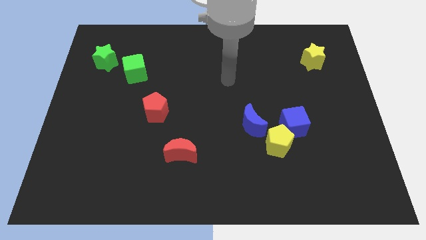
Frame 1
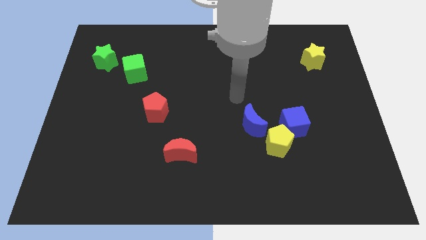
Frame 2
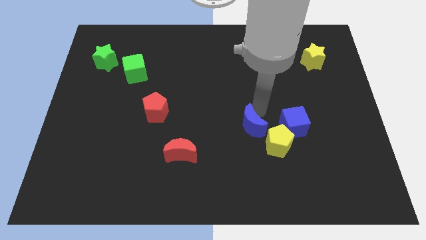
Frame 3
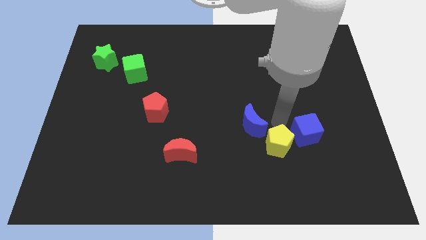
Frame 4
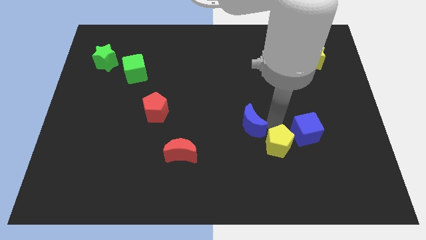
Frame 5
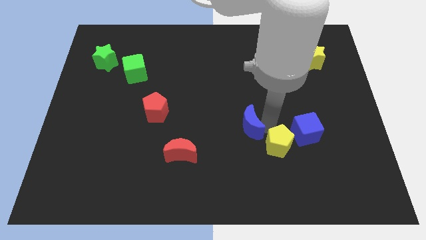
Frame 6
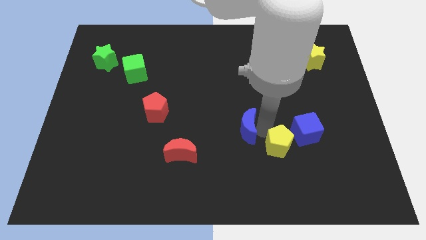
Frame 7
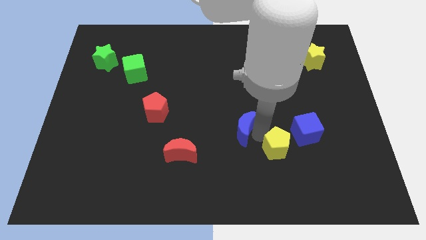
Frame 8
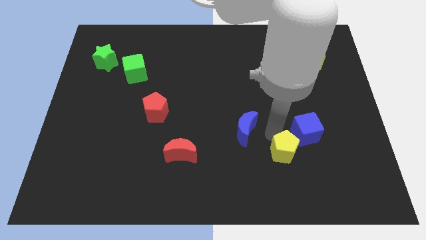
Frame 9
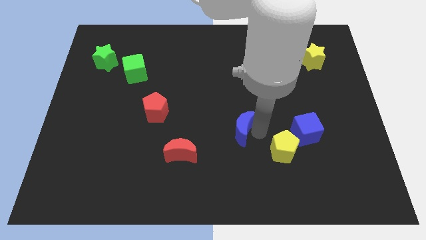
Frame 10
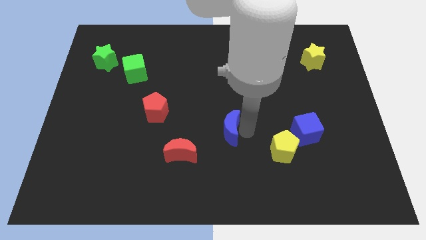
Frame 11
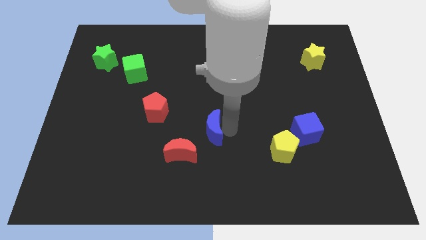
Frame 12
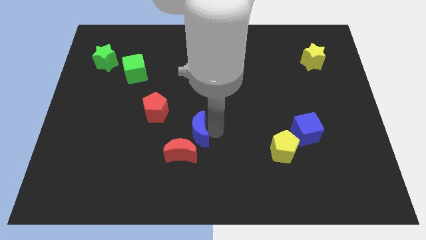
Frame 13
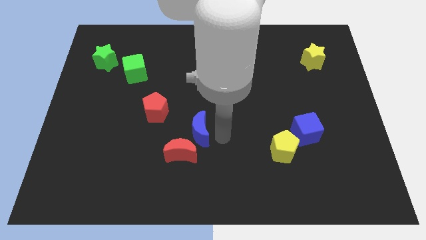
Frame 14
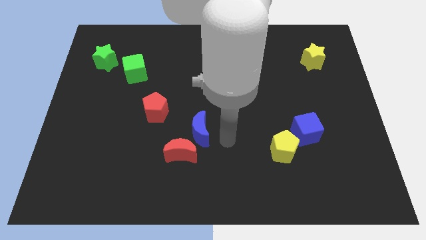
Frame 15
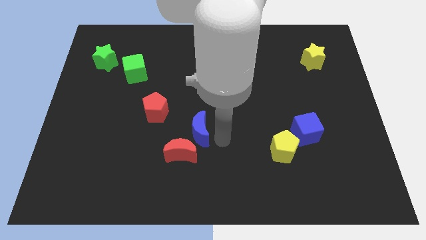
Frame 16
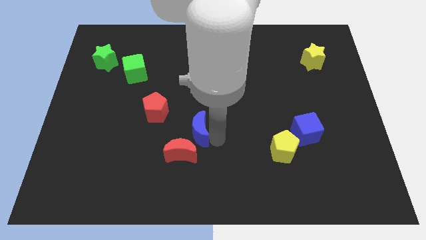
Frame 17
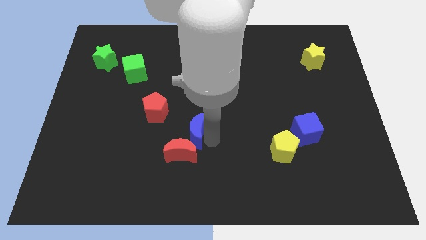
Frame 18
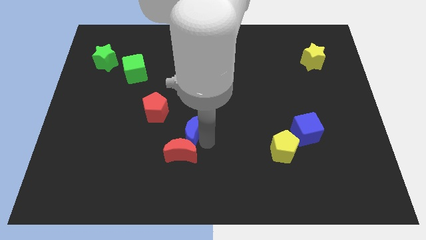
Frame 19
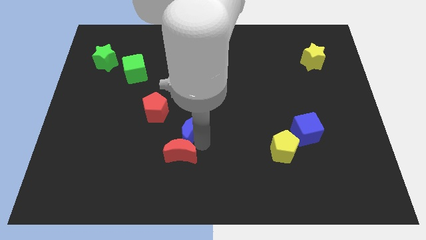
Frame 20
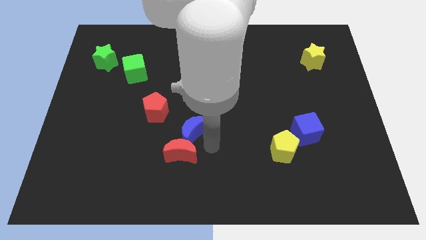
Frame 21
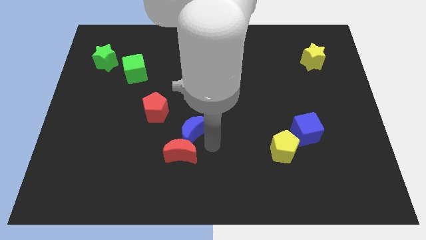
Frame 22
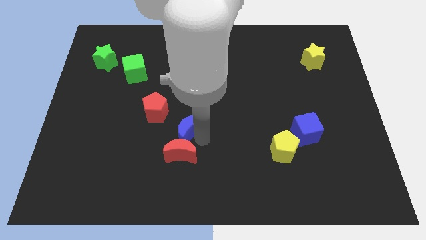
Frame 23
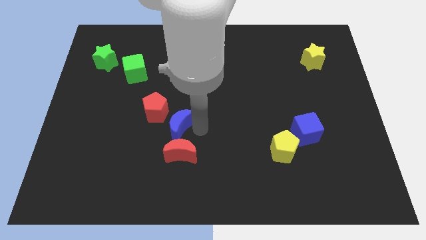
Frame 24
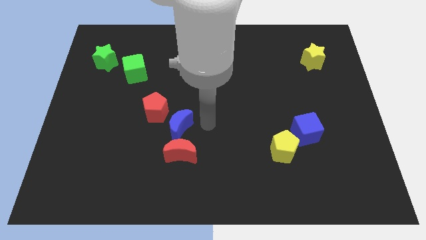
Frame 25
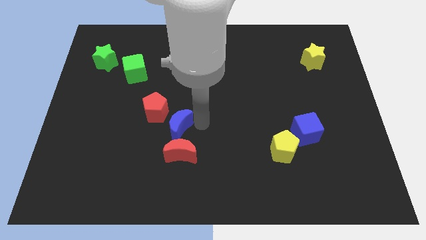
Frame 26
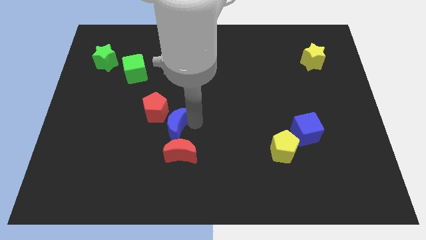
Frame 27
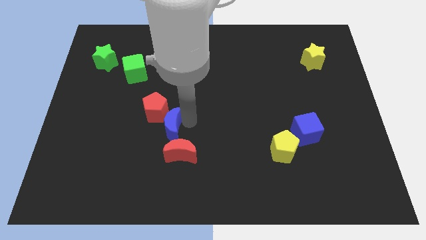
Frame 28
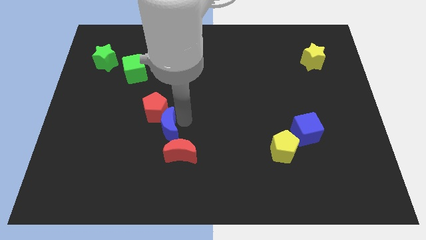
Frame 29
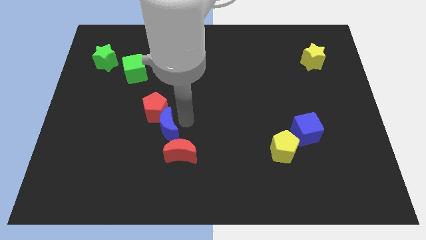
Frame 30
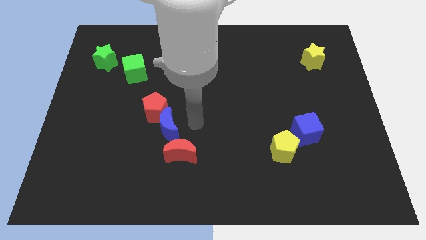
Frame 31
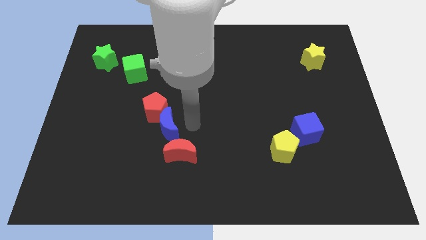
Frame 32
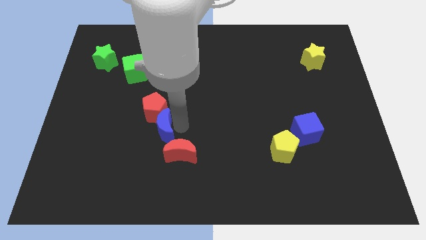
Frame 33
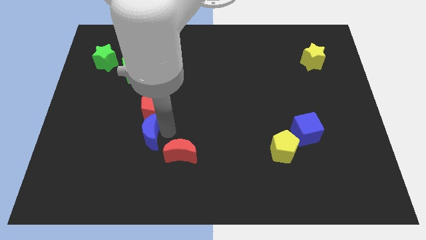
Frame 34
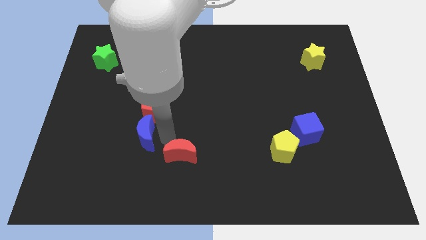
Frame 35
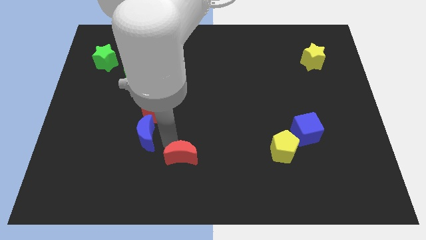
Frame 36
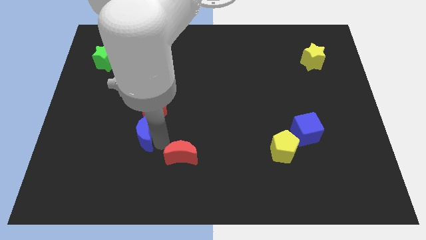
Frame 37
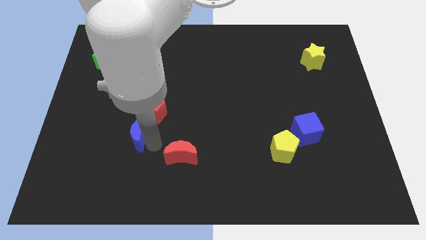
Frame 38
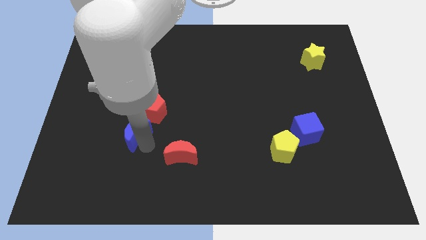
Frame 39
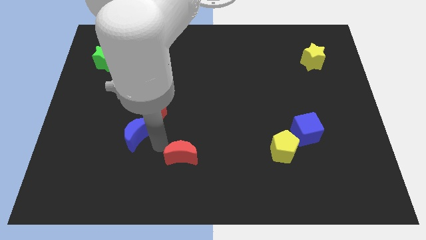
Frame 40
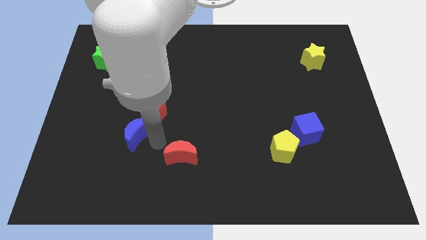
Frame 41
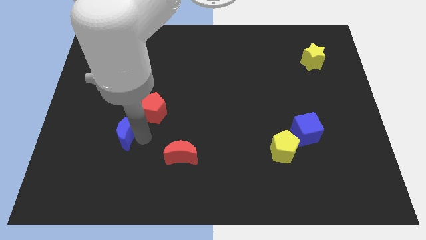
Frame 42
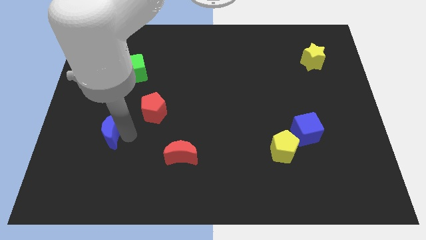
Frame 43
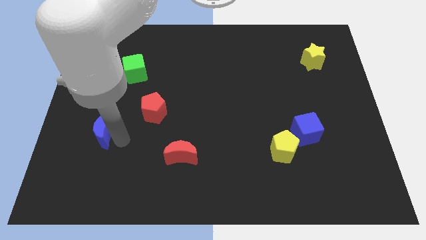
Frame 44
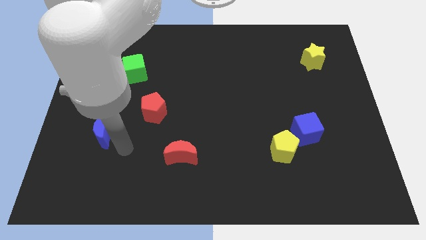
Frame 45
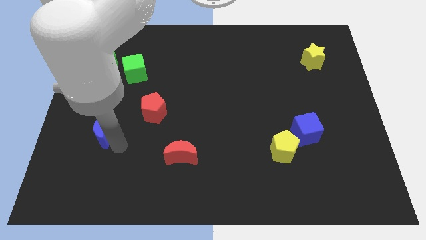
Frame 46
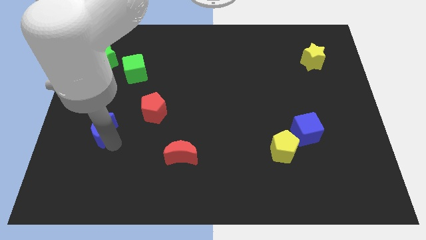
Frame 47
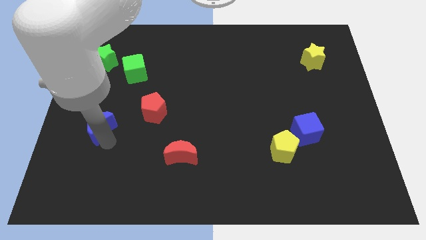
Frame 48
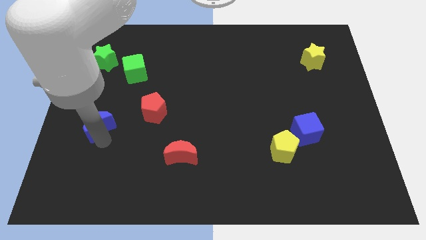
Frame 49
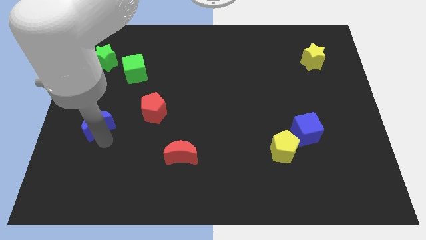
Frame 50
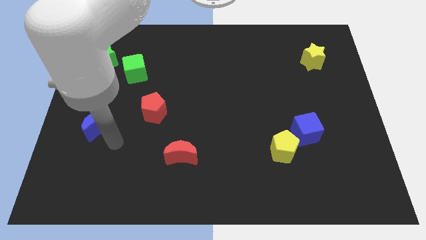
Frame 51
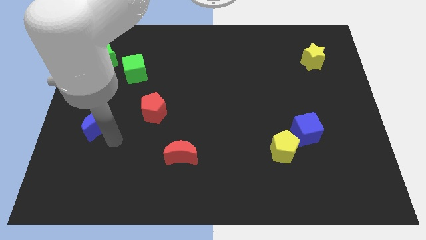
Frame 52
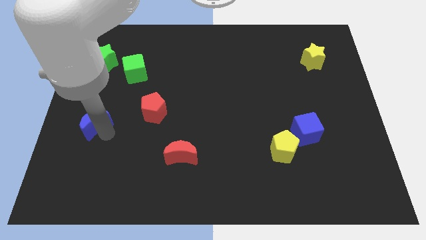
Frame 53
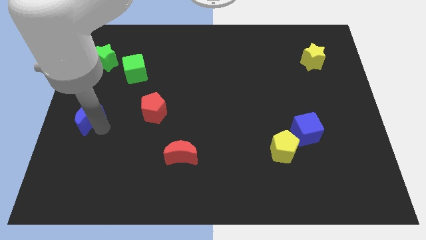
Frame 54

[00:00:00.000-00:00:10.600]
slide the blue moon to the left side

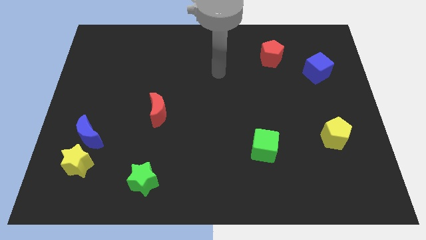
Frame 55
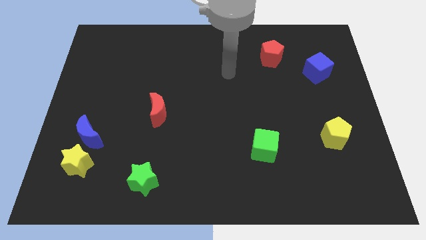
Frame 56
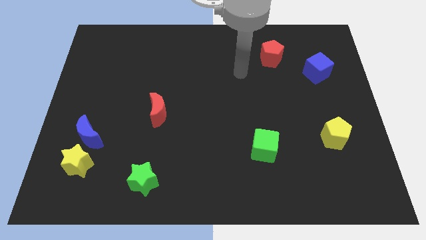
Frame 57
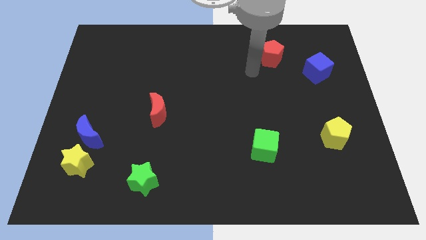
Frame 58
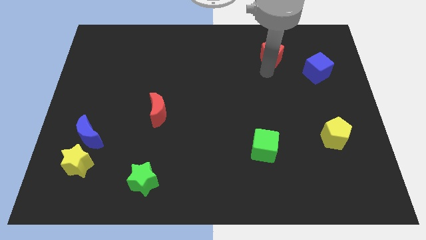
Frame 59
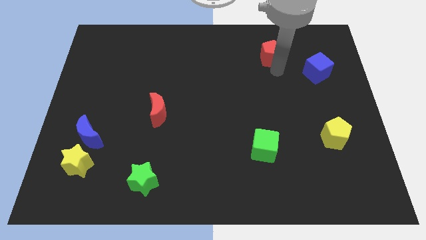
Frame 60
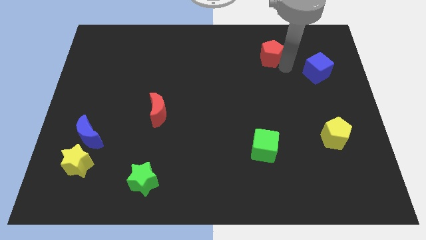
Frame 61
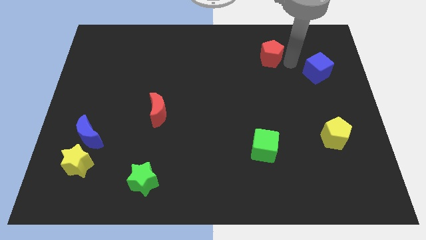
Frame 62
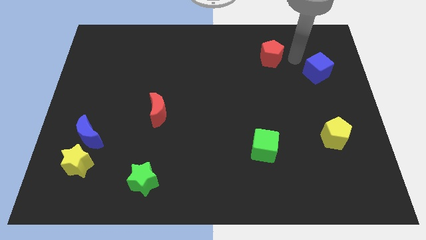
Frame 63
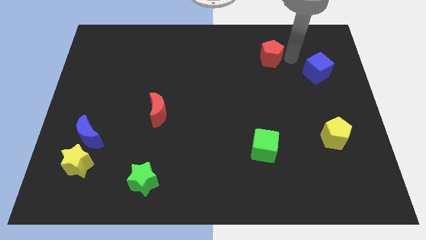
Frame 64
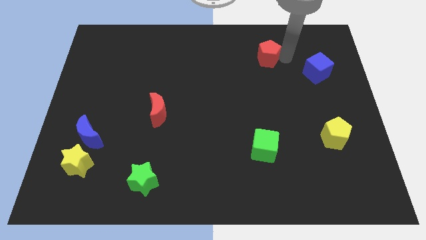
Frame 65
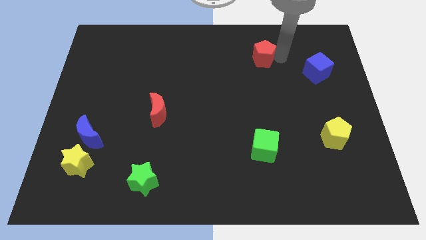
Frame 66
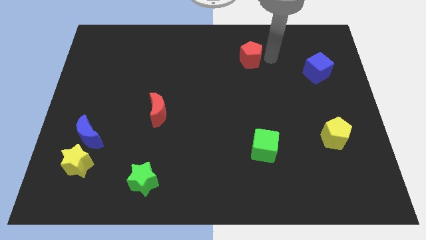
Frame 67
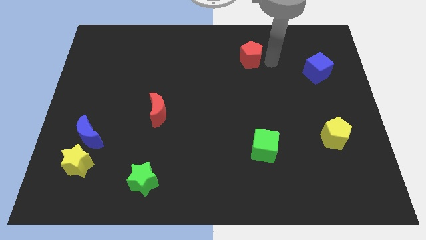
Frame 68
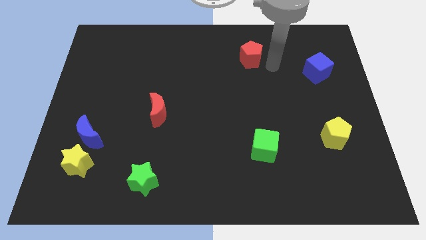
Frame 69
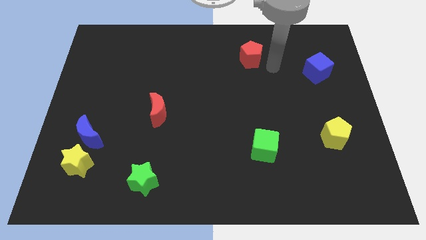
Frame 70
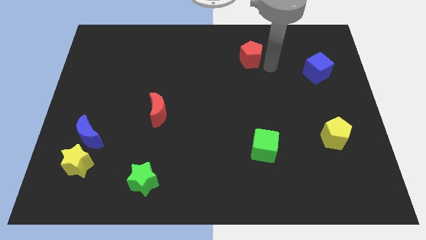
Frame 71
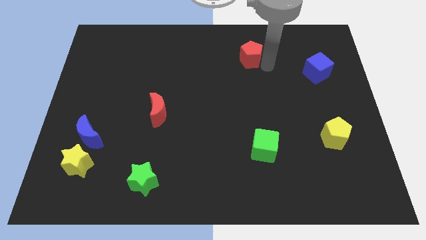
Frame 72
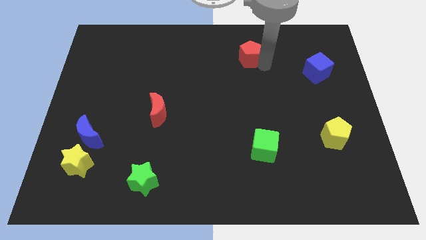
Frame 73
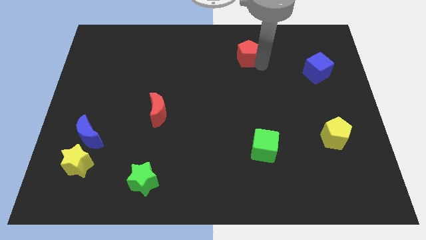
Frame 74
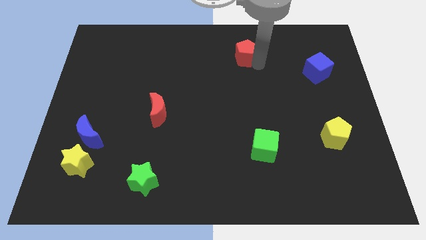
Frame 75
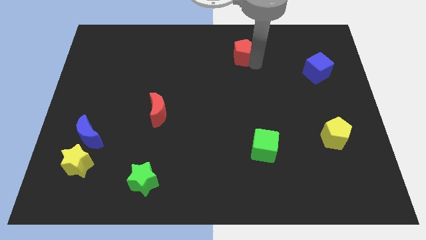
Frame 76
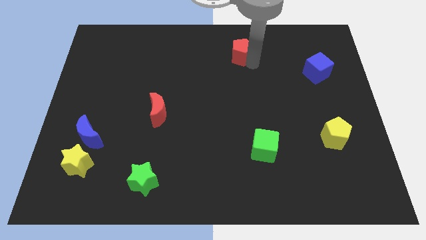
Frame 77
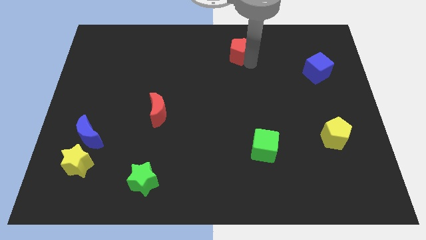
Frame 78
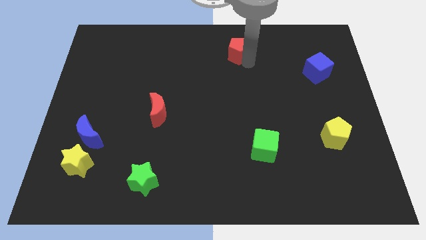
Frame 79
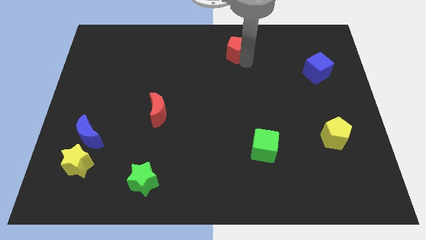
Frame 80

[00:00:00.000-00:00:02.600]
slide the red pentagon to the top
